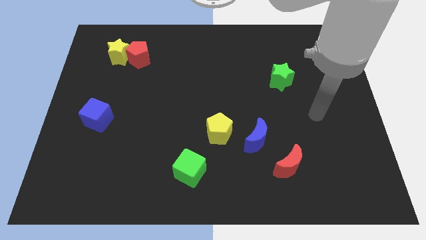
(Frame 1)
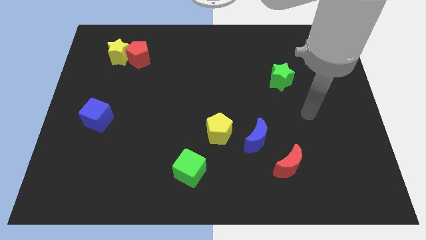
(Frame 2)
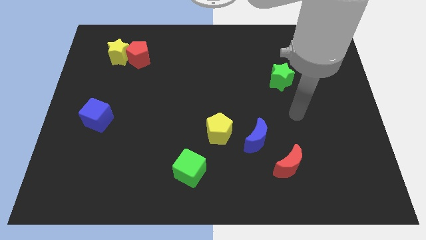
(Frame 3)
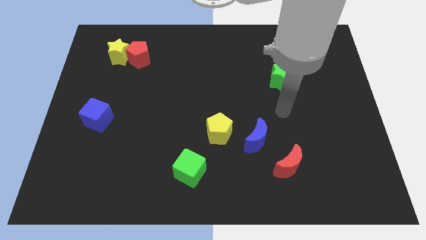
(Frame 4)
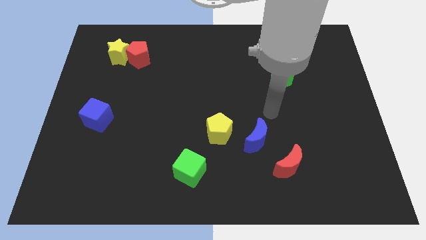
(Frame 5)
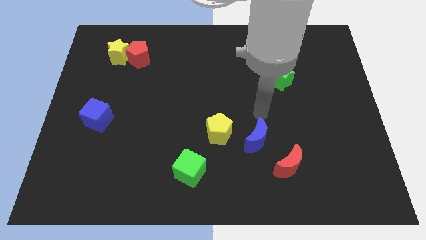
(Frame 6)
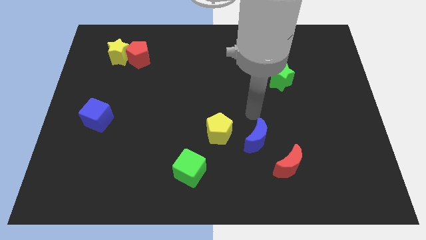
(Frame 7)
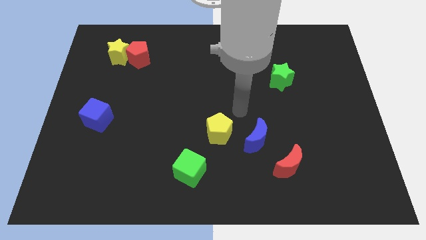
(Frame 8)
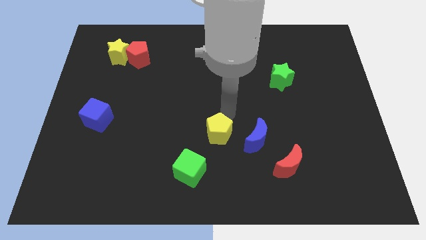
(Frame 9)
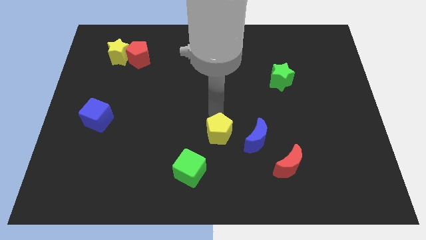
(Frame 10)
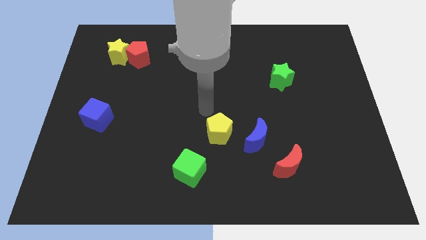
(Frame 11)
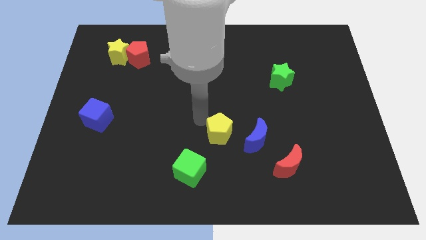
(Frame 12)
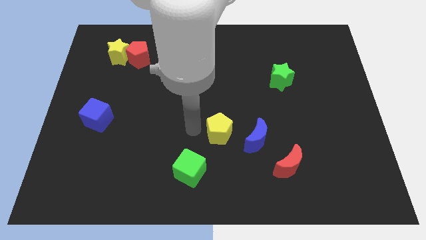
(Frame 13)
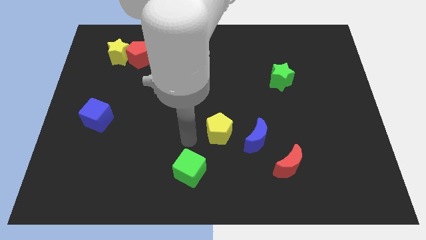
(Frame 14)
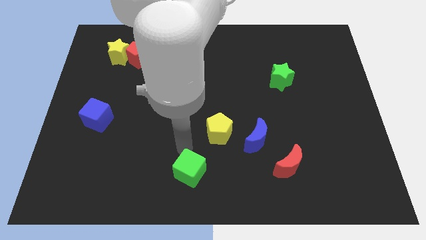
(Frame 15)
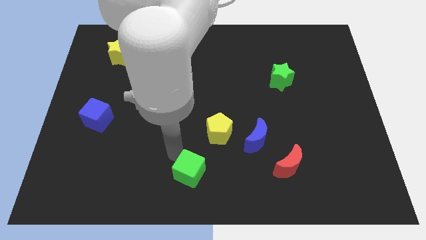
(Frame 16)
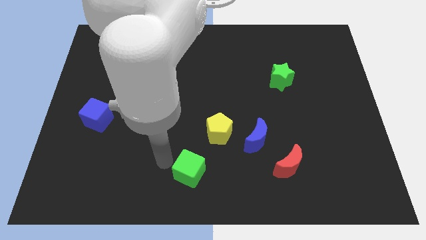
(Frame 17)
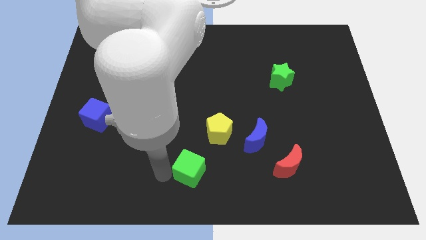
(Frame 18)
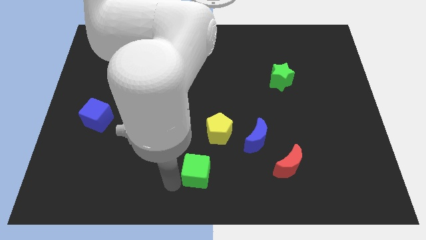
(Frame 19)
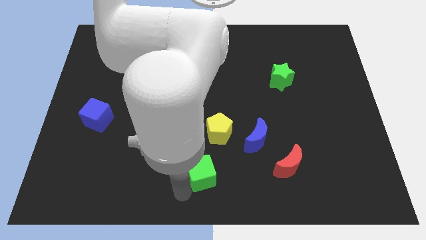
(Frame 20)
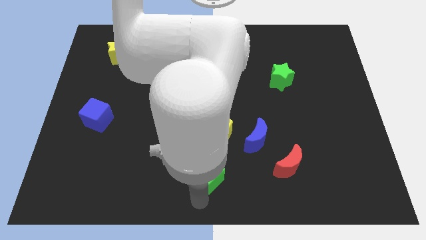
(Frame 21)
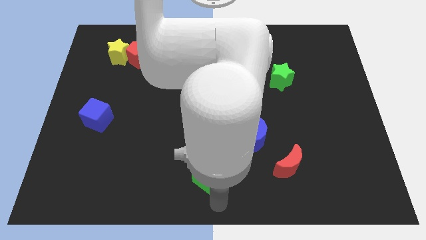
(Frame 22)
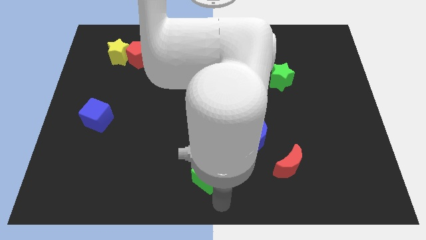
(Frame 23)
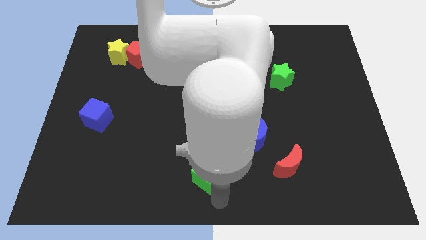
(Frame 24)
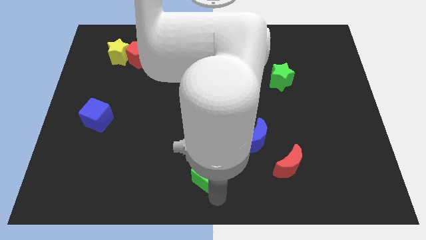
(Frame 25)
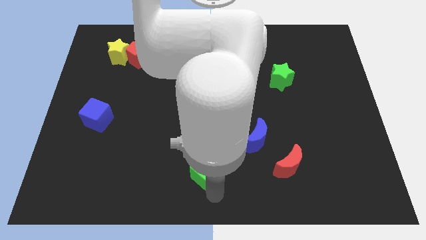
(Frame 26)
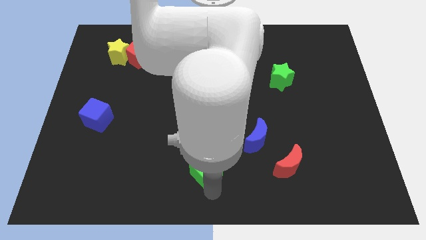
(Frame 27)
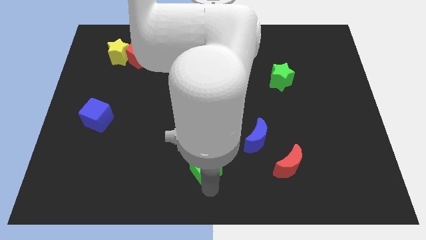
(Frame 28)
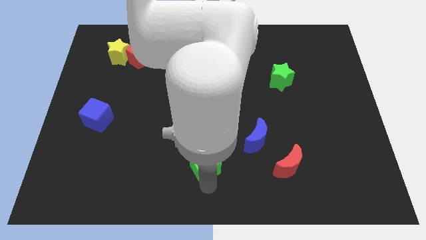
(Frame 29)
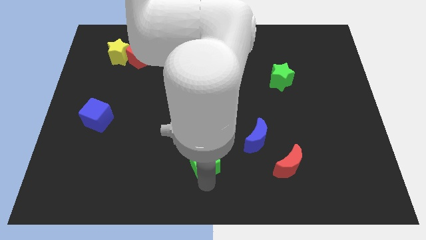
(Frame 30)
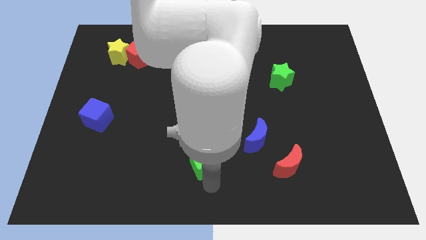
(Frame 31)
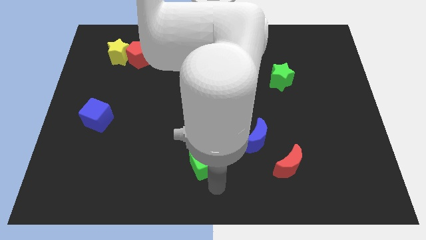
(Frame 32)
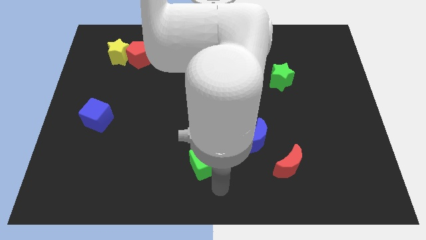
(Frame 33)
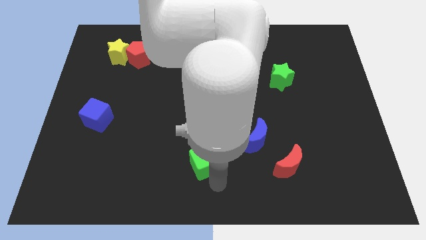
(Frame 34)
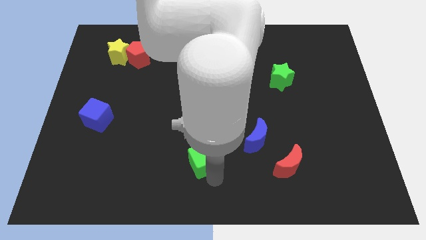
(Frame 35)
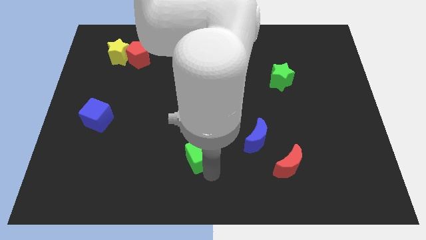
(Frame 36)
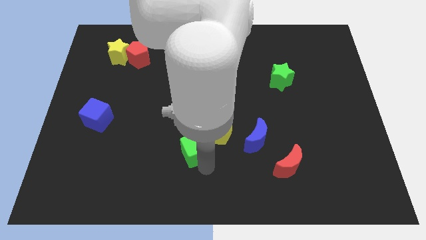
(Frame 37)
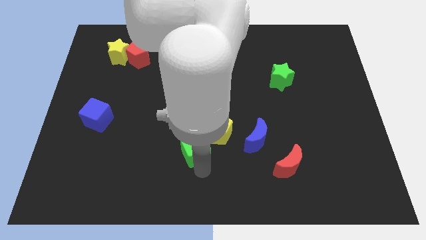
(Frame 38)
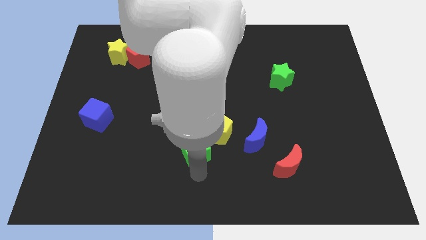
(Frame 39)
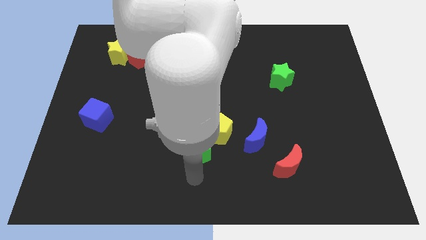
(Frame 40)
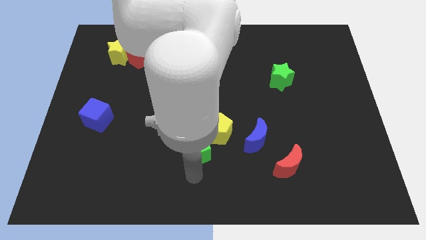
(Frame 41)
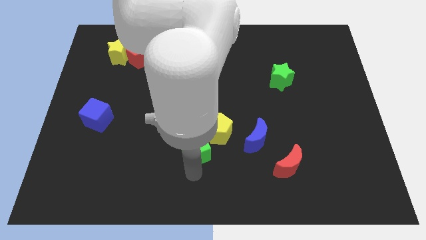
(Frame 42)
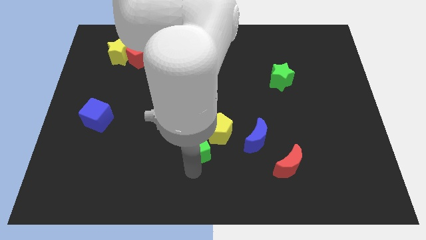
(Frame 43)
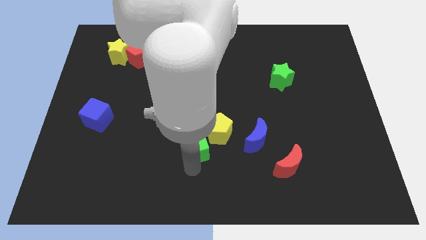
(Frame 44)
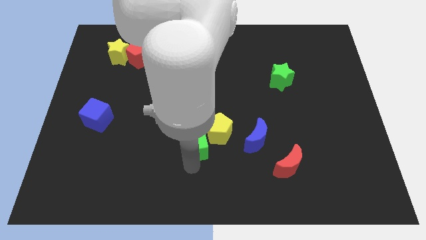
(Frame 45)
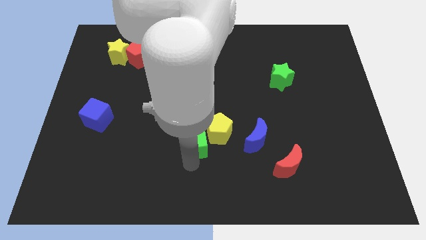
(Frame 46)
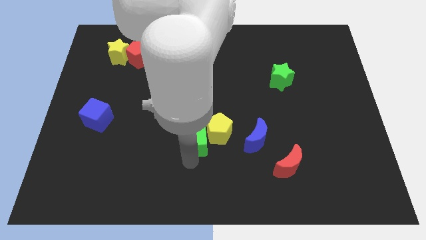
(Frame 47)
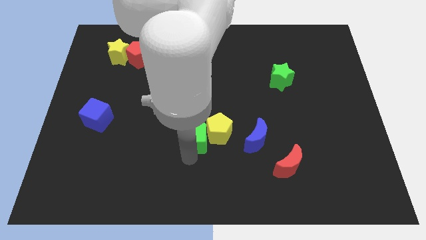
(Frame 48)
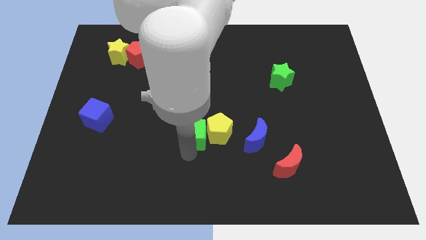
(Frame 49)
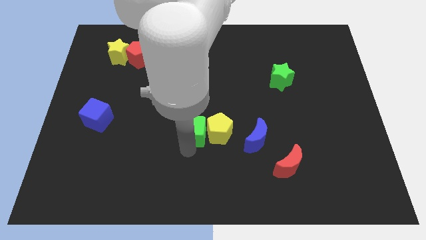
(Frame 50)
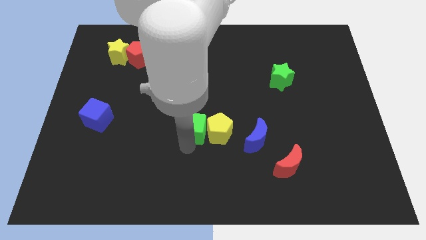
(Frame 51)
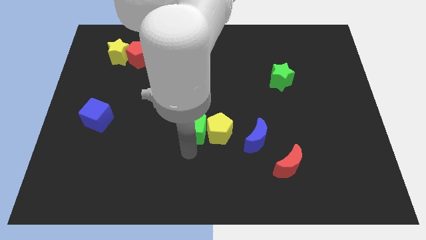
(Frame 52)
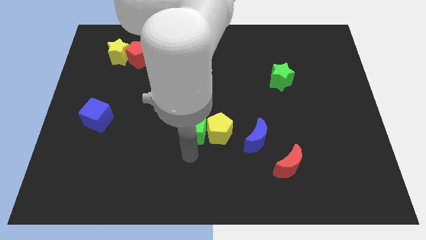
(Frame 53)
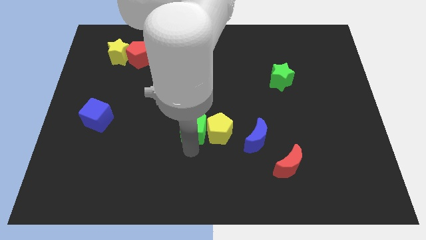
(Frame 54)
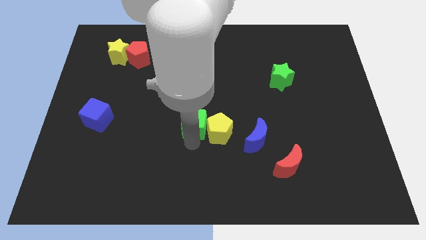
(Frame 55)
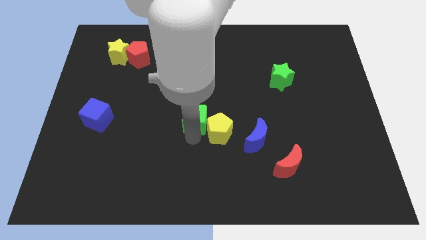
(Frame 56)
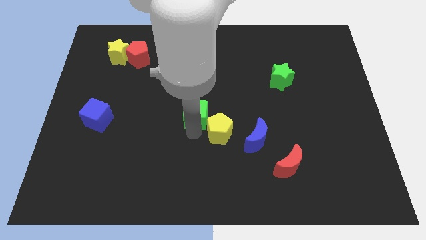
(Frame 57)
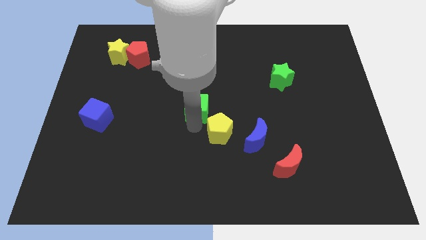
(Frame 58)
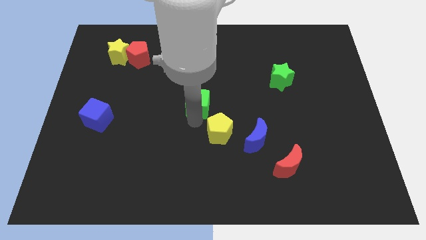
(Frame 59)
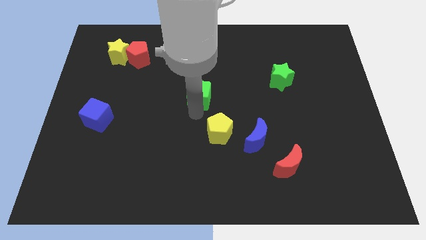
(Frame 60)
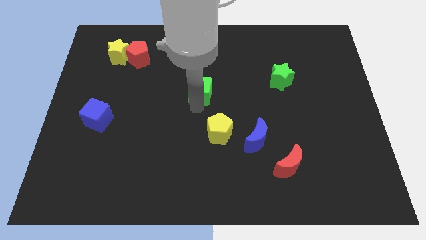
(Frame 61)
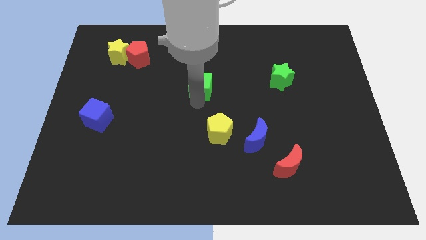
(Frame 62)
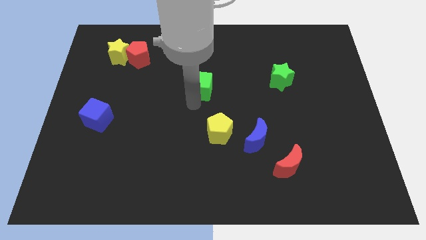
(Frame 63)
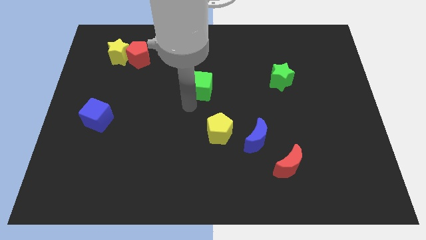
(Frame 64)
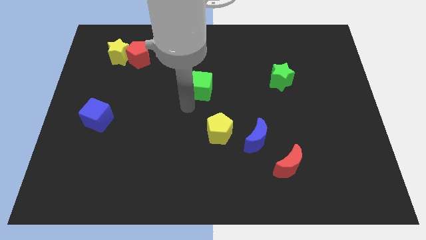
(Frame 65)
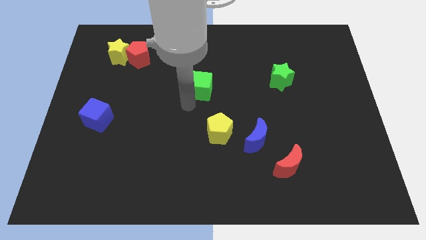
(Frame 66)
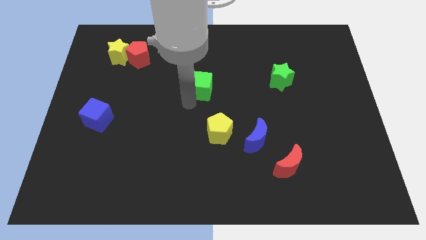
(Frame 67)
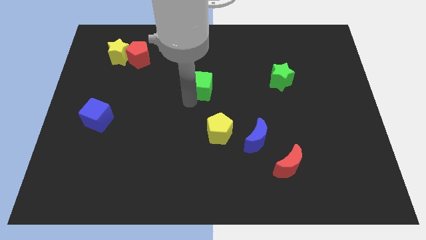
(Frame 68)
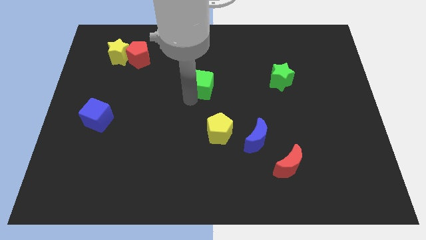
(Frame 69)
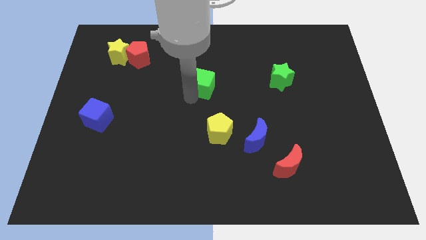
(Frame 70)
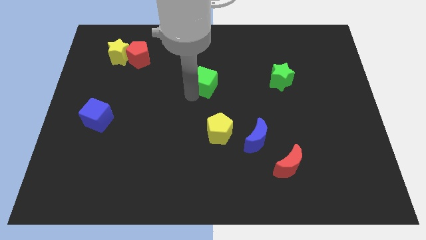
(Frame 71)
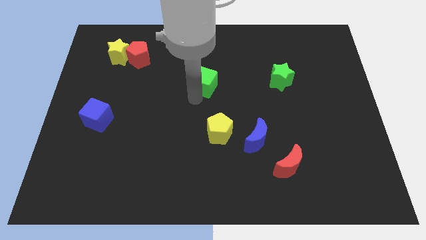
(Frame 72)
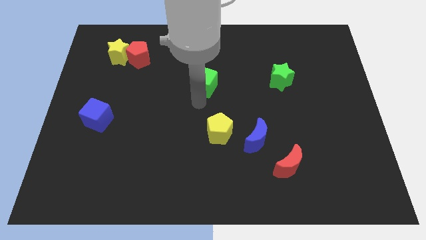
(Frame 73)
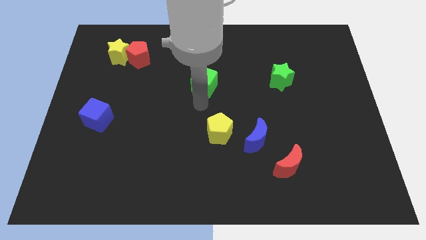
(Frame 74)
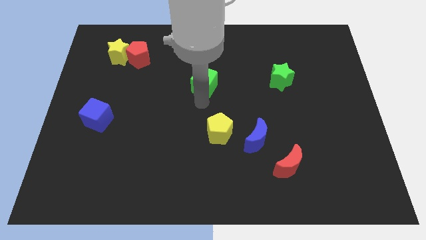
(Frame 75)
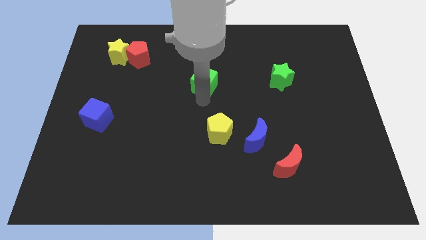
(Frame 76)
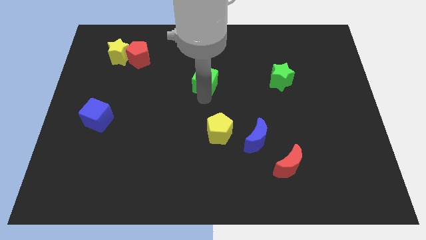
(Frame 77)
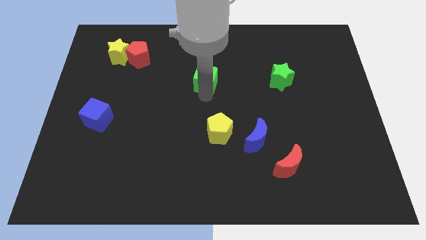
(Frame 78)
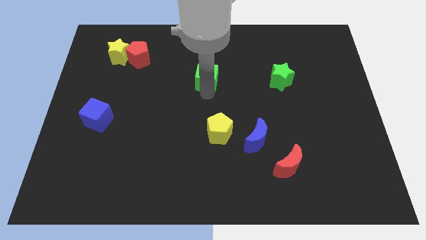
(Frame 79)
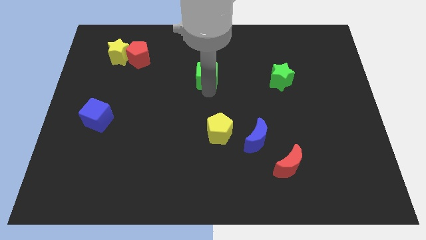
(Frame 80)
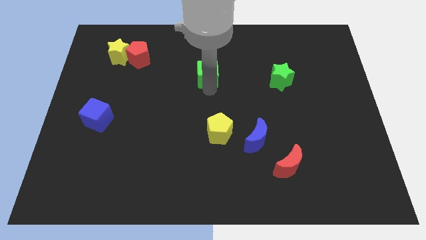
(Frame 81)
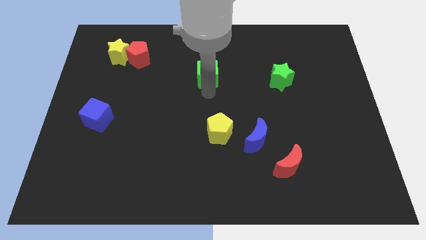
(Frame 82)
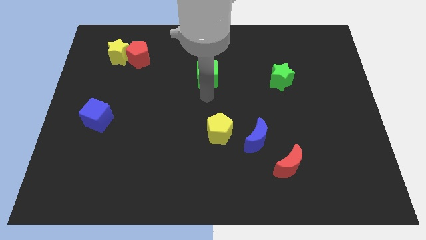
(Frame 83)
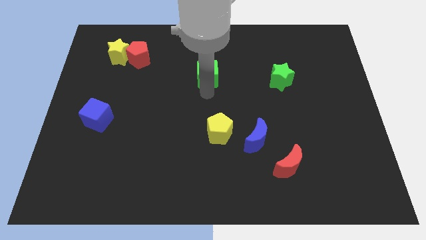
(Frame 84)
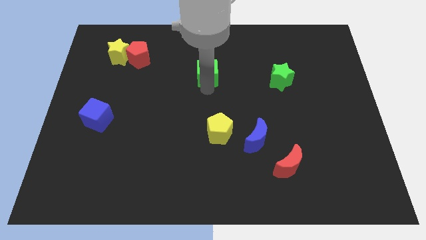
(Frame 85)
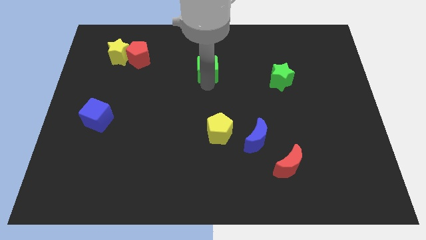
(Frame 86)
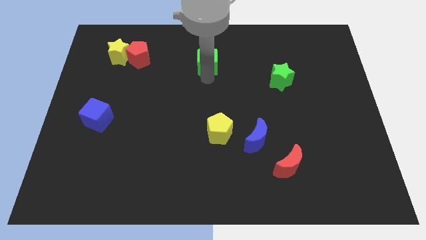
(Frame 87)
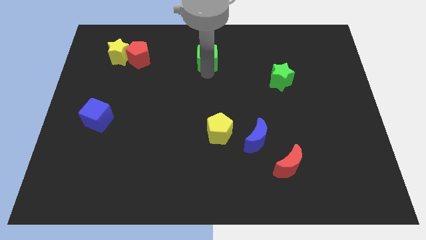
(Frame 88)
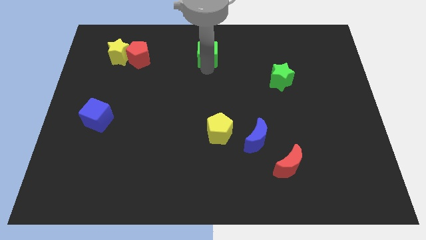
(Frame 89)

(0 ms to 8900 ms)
slide the green cube to the towards your base
